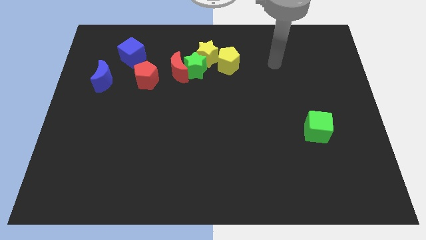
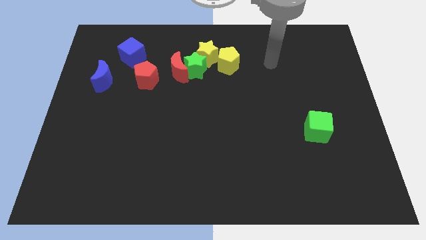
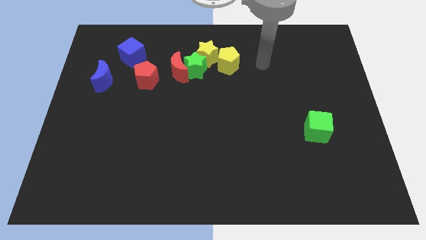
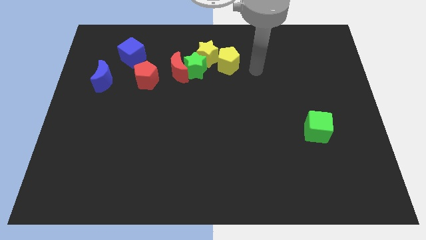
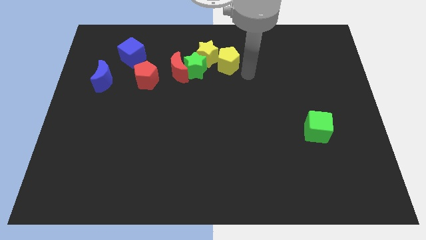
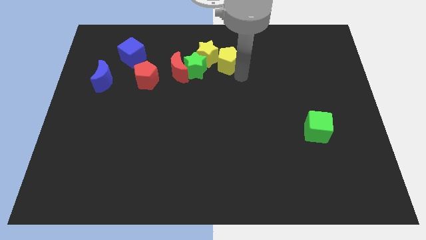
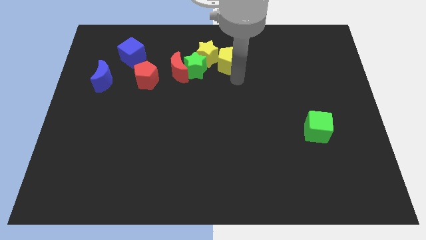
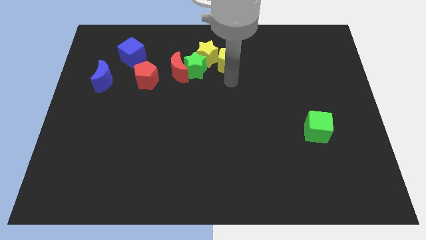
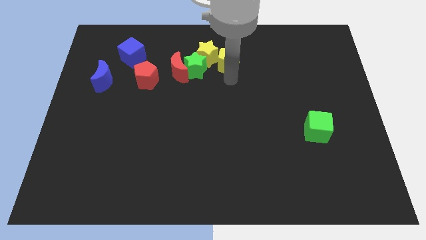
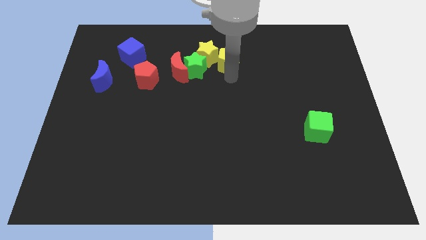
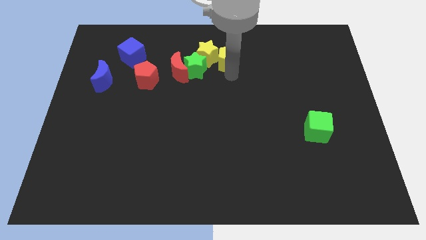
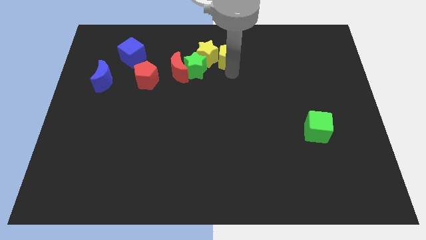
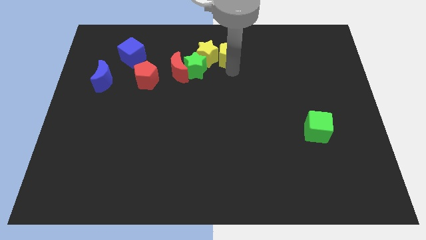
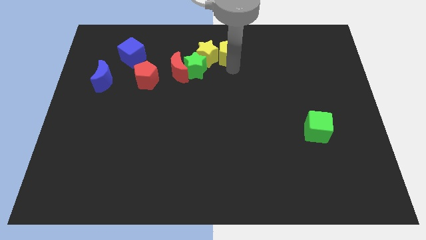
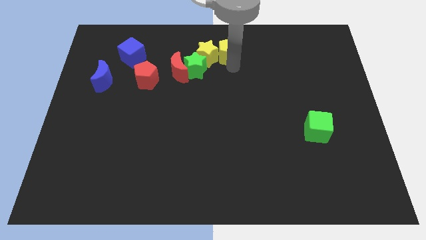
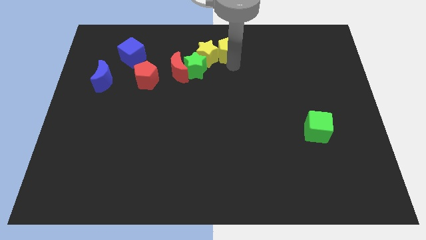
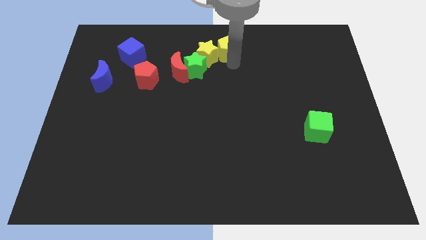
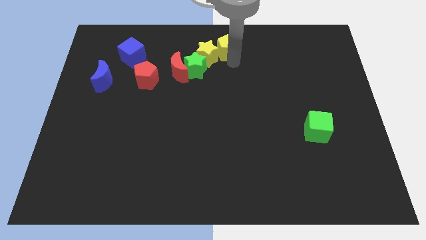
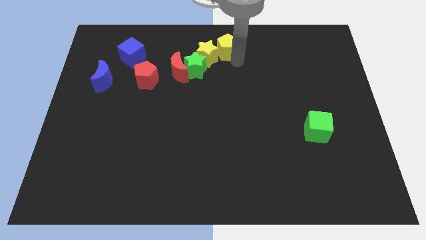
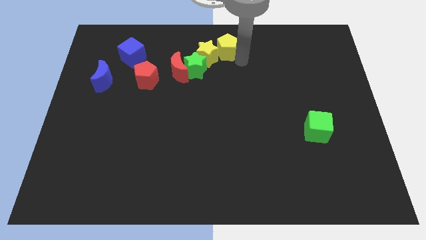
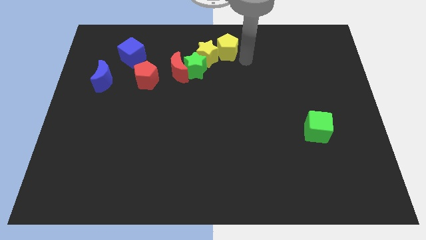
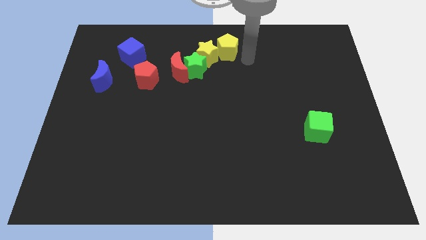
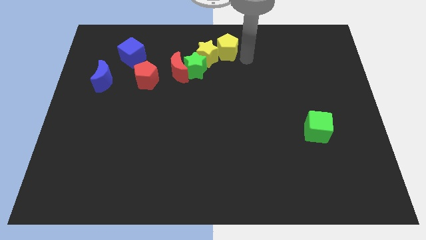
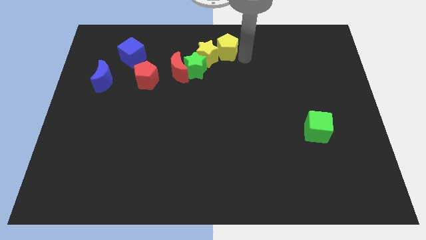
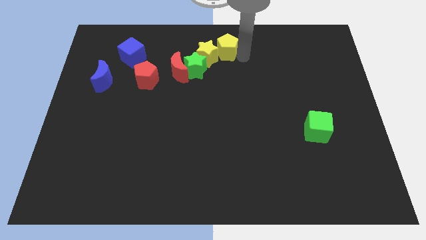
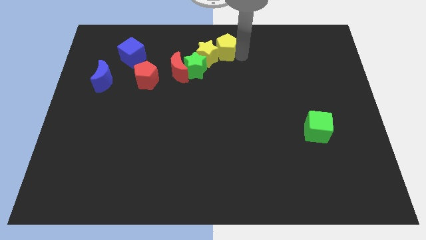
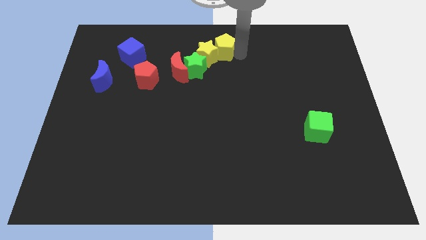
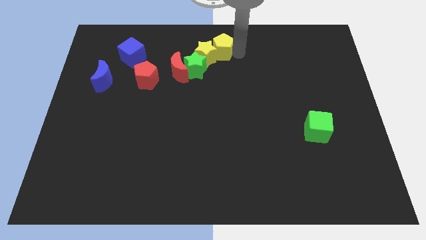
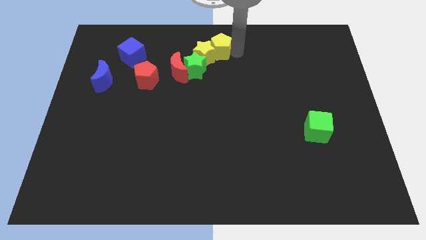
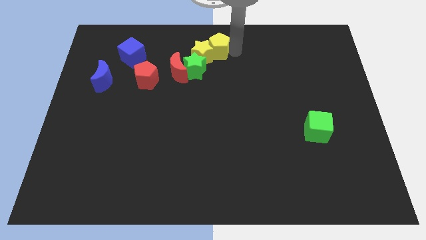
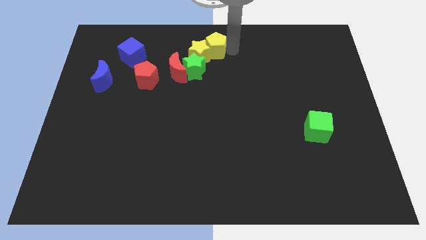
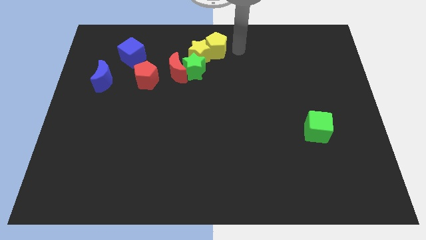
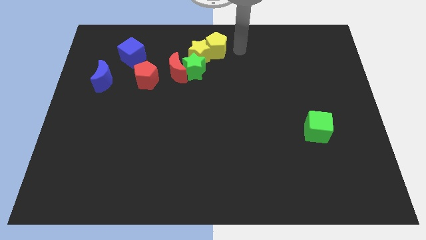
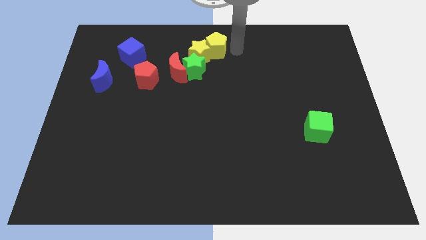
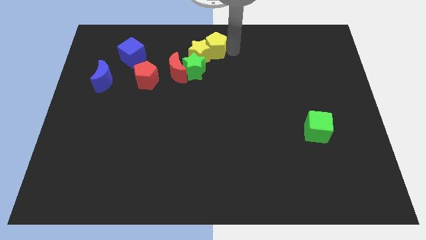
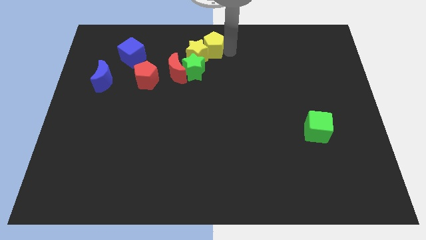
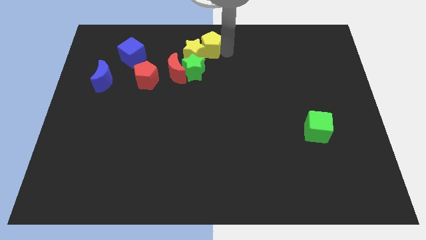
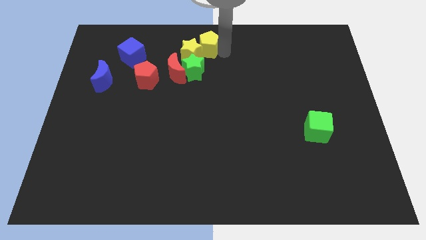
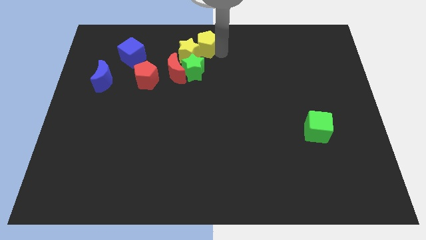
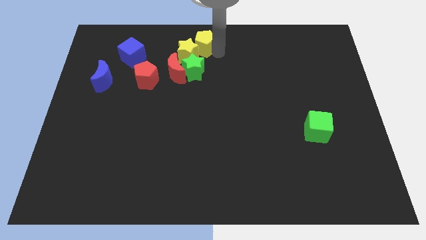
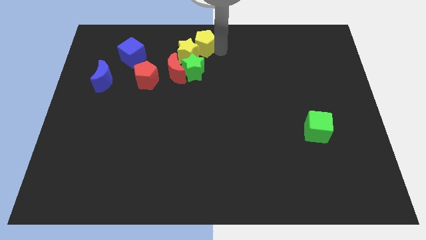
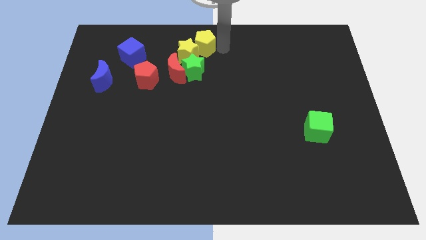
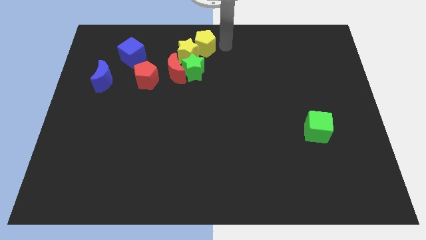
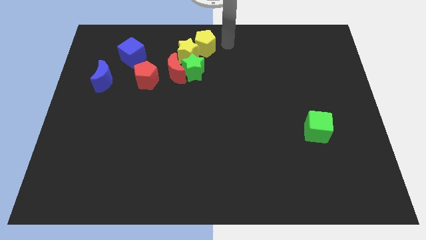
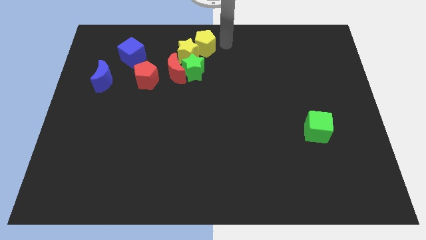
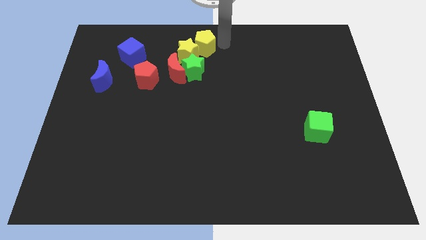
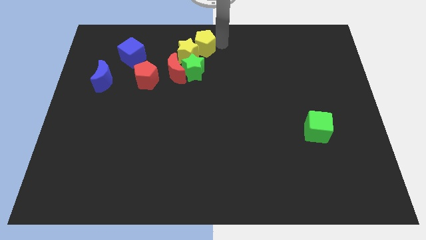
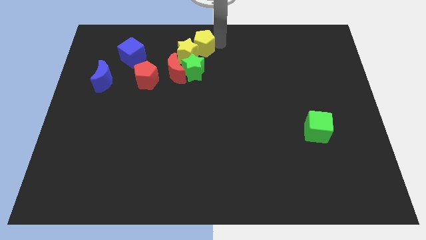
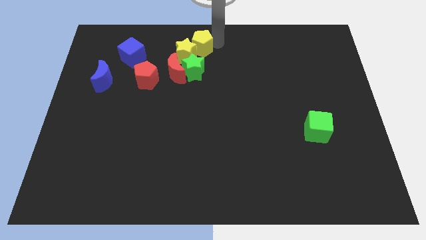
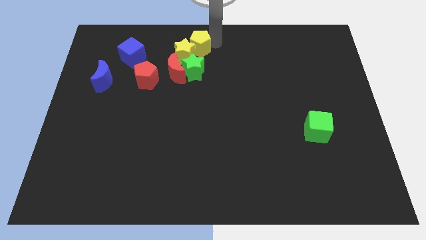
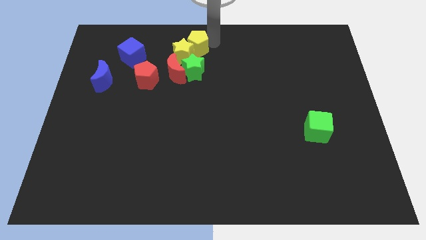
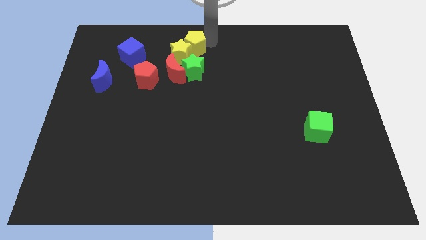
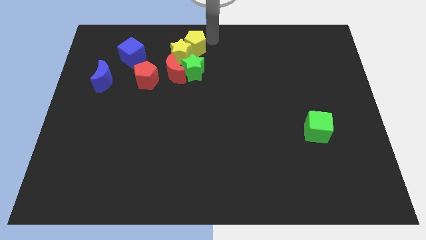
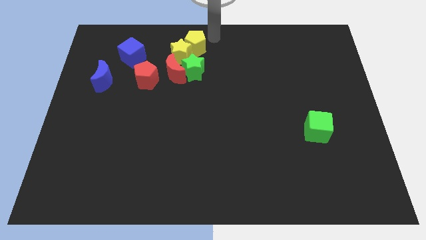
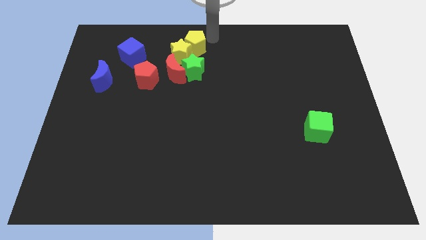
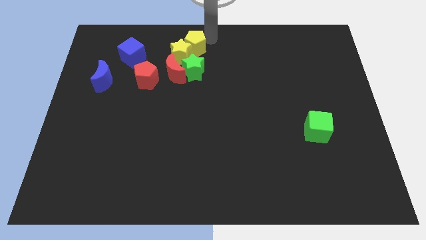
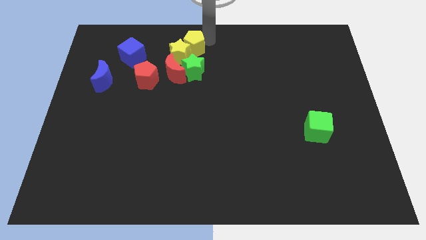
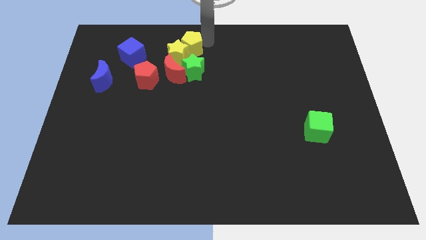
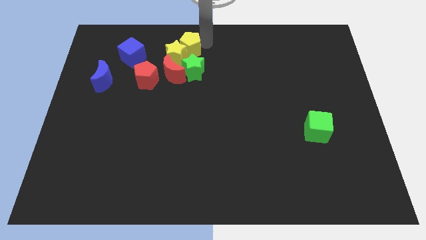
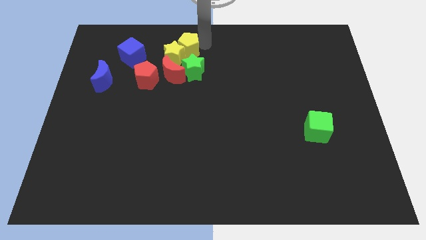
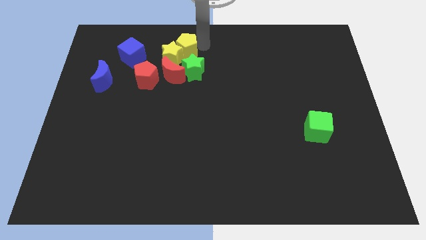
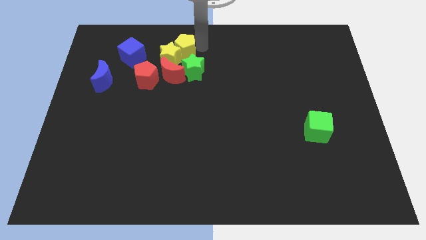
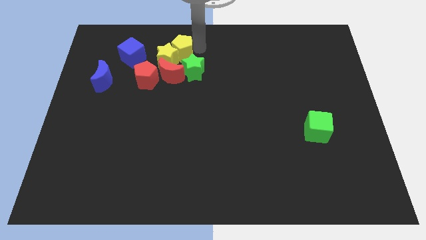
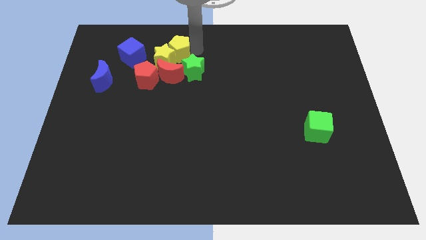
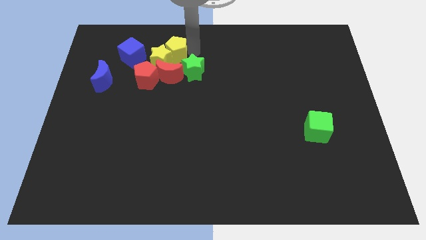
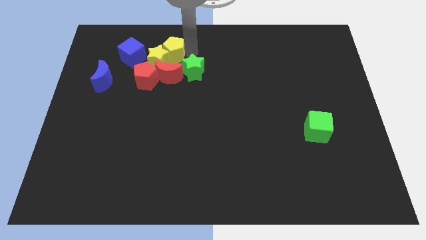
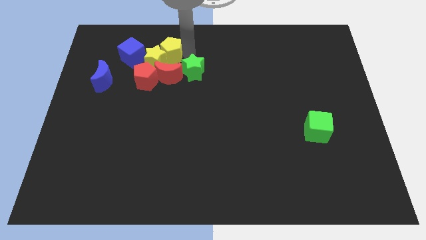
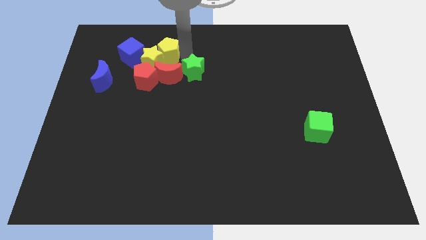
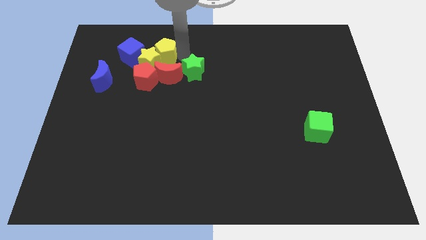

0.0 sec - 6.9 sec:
put the yellow pentagon diagonally up and to the left of the red moon
